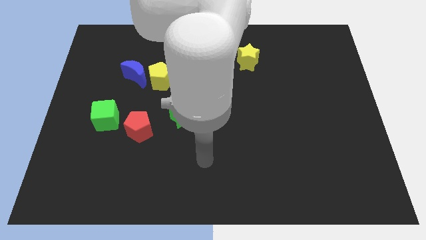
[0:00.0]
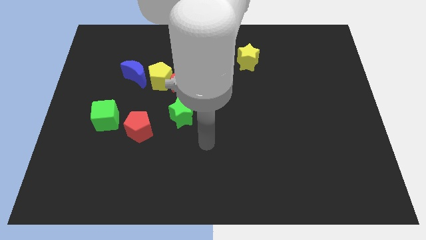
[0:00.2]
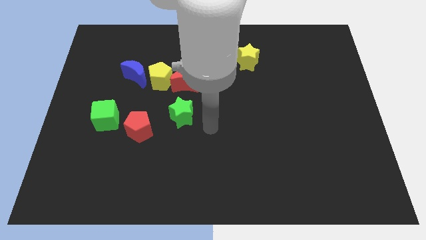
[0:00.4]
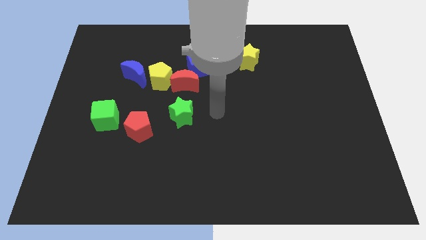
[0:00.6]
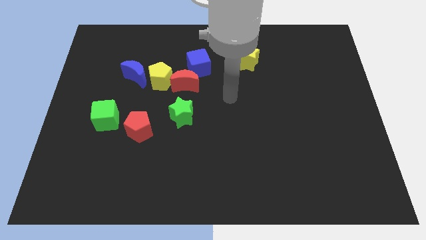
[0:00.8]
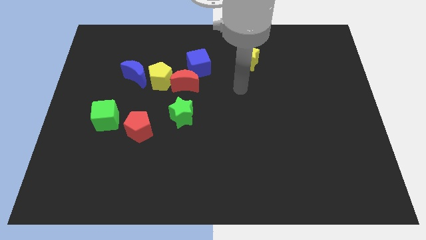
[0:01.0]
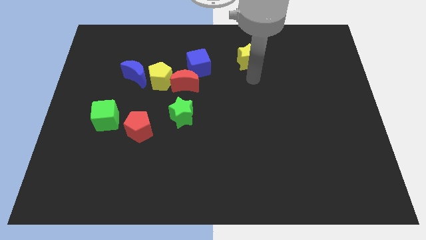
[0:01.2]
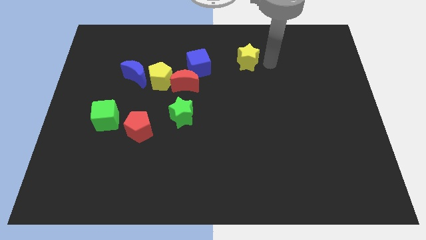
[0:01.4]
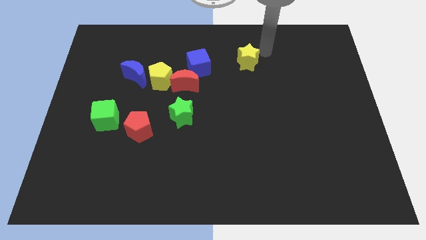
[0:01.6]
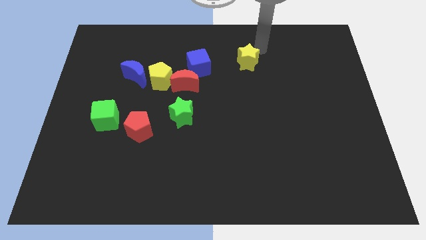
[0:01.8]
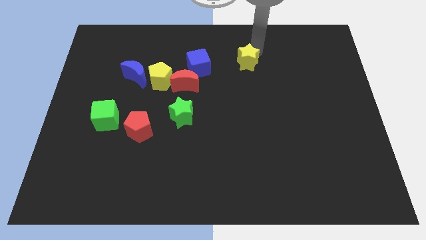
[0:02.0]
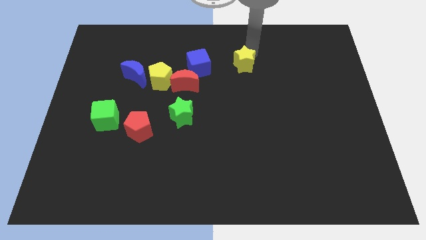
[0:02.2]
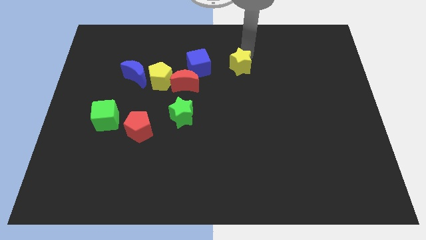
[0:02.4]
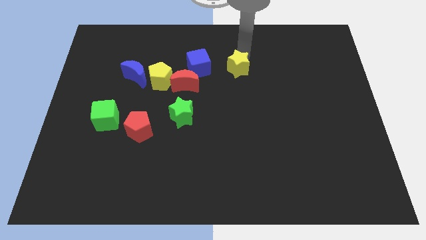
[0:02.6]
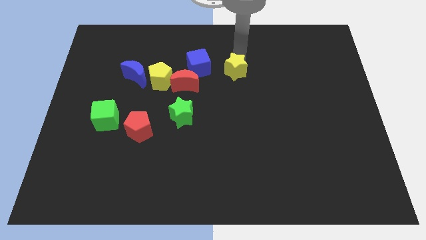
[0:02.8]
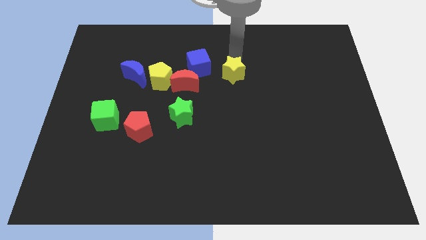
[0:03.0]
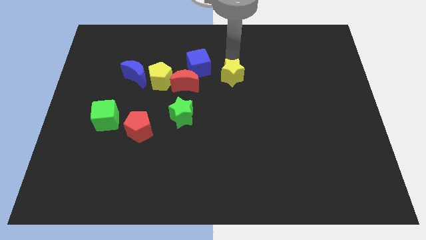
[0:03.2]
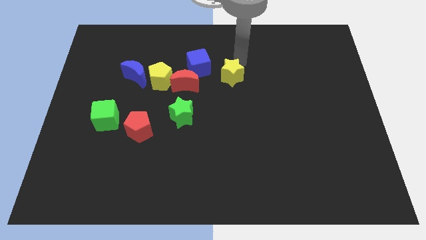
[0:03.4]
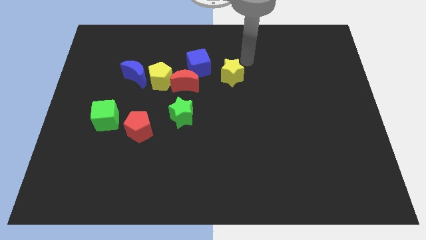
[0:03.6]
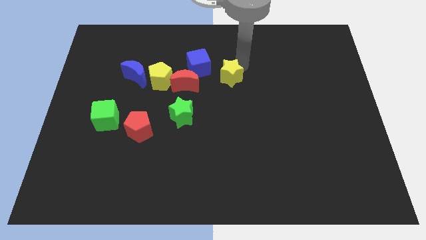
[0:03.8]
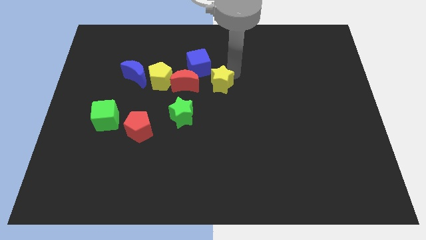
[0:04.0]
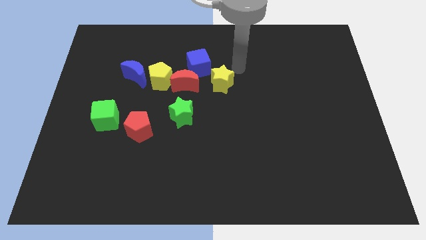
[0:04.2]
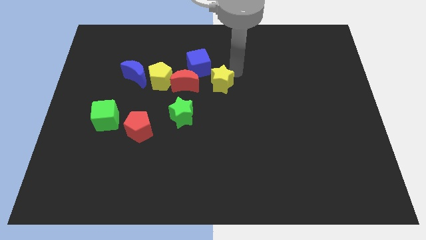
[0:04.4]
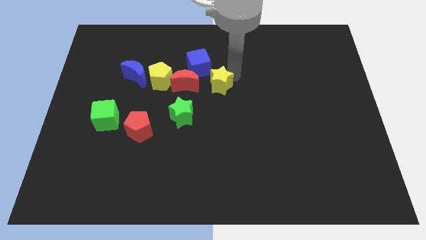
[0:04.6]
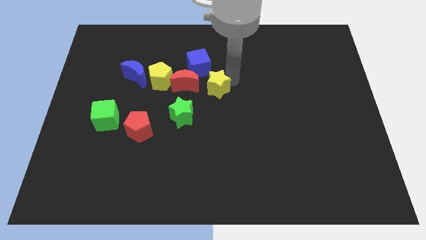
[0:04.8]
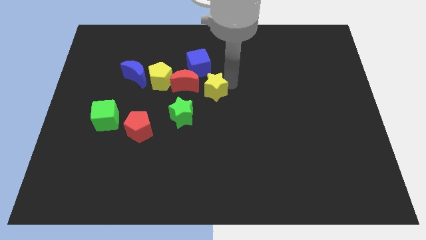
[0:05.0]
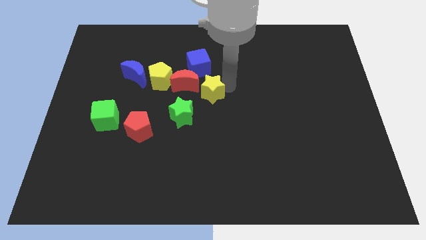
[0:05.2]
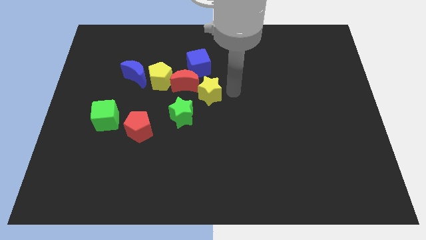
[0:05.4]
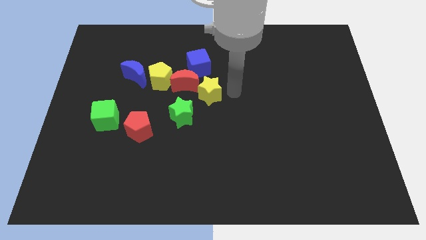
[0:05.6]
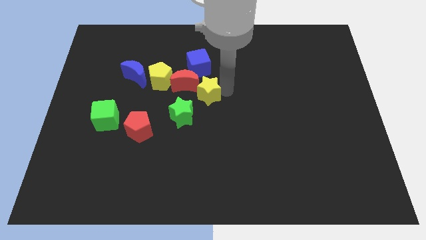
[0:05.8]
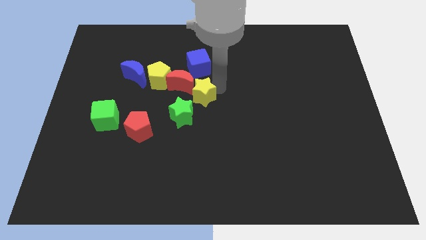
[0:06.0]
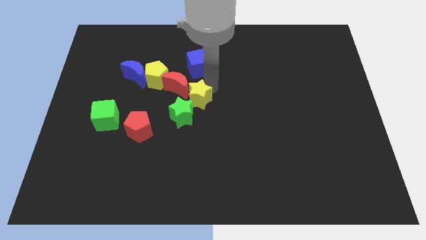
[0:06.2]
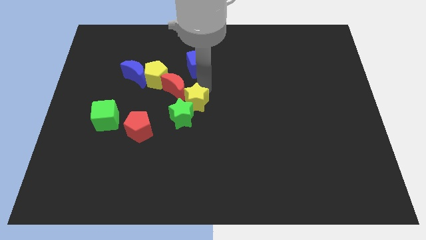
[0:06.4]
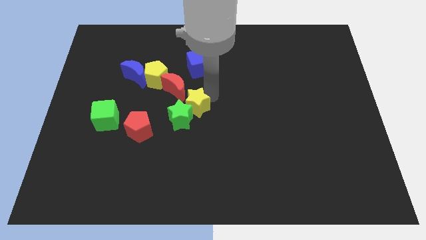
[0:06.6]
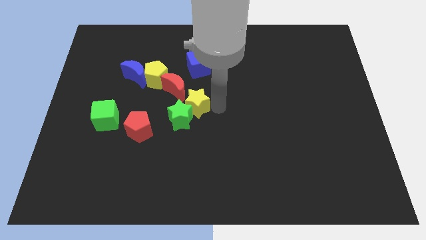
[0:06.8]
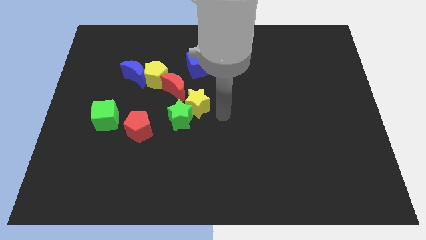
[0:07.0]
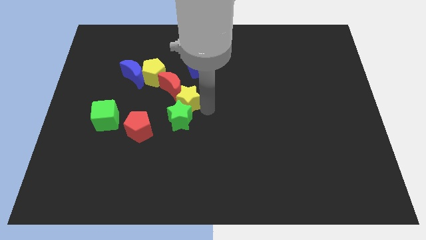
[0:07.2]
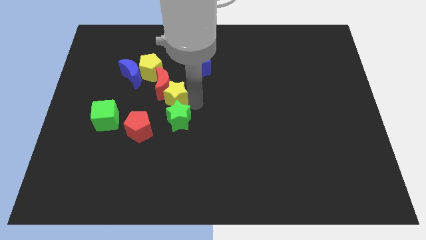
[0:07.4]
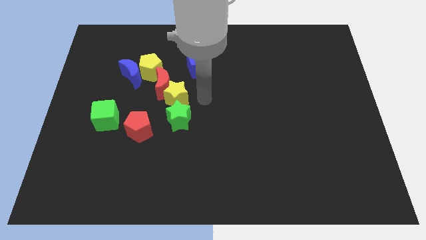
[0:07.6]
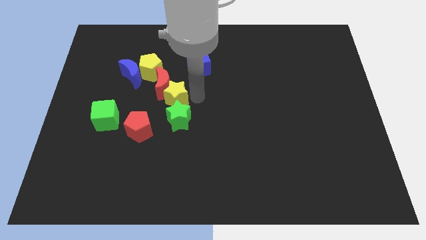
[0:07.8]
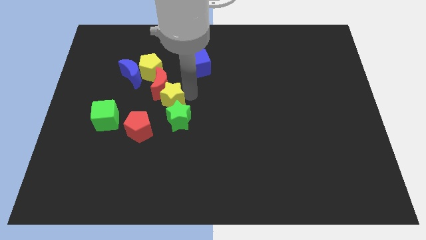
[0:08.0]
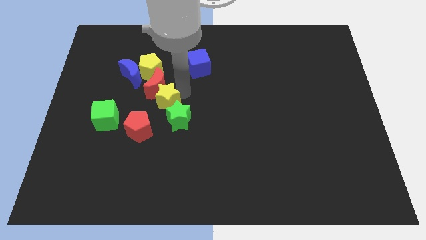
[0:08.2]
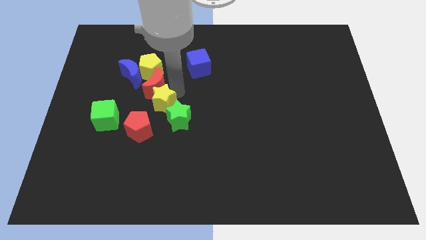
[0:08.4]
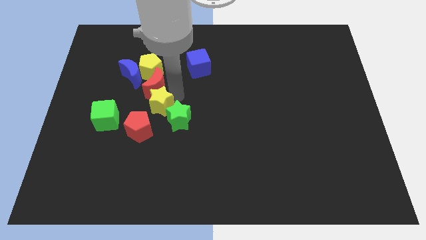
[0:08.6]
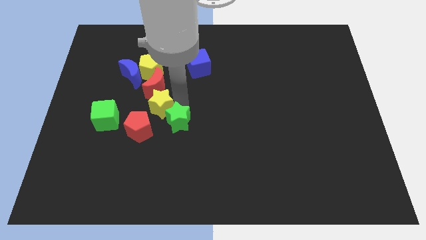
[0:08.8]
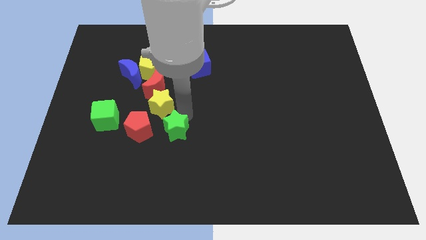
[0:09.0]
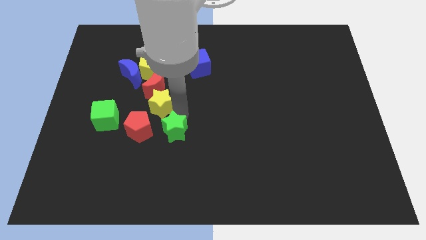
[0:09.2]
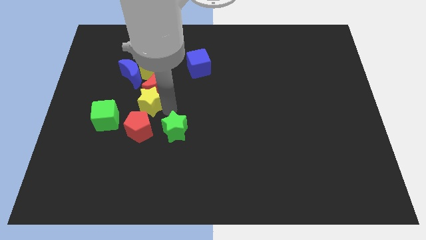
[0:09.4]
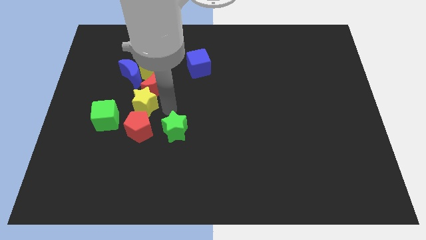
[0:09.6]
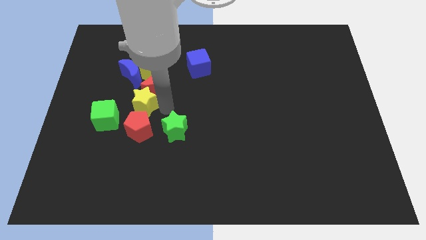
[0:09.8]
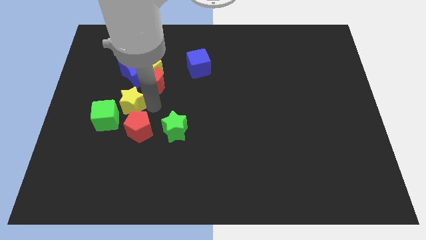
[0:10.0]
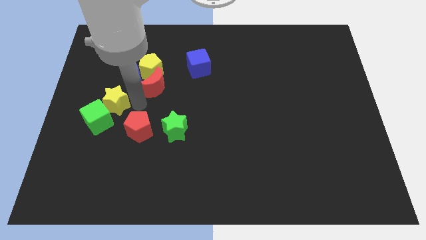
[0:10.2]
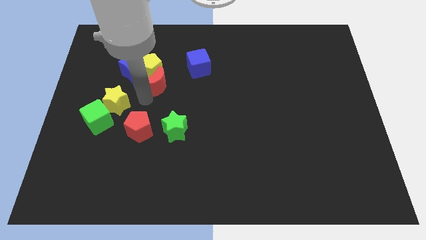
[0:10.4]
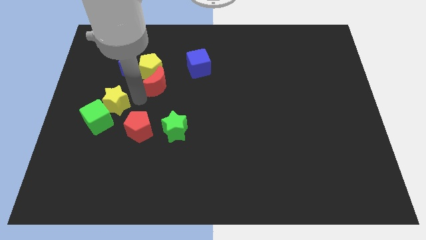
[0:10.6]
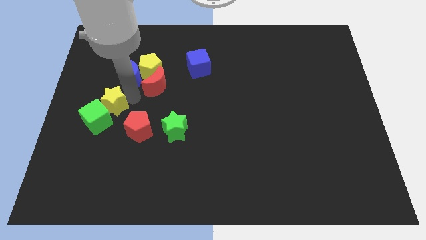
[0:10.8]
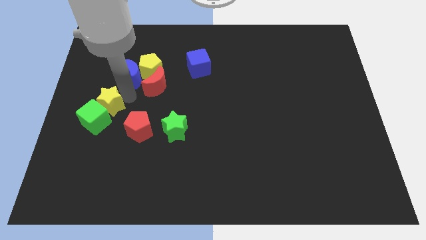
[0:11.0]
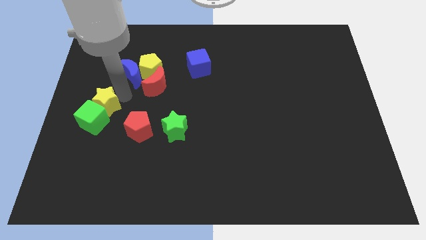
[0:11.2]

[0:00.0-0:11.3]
move the yellow star to the left side

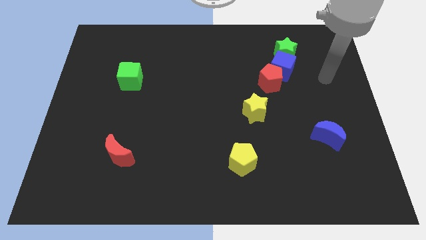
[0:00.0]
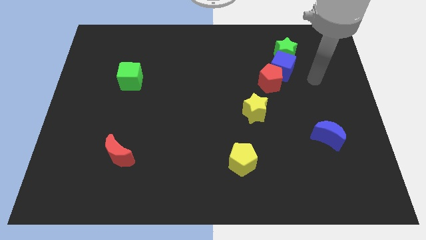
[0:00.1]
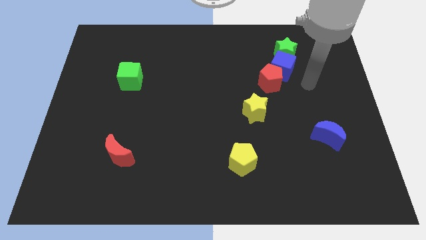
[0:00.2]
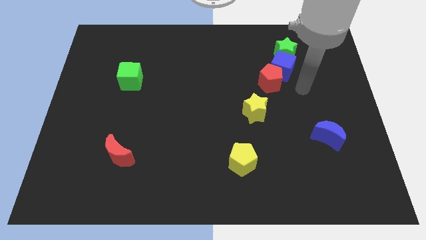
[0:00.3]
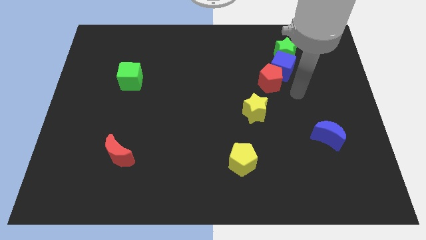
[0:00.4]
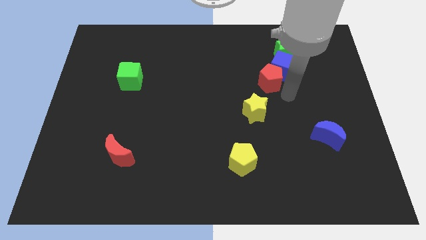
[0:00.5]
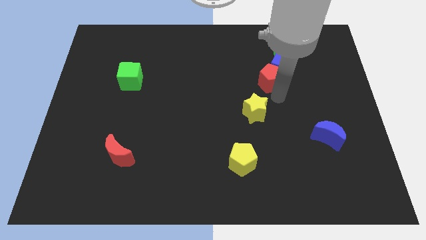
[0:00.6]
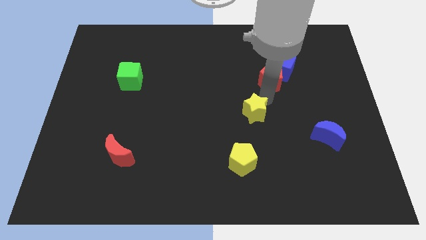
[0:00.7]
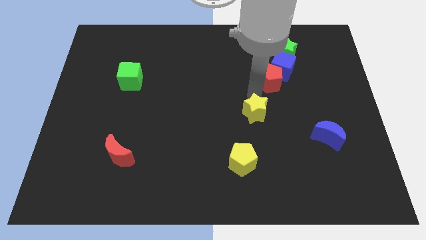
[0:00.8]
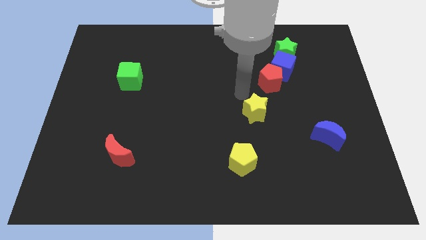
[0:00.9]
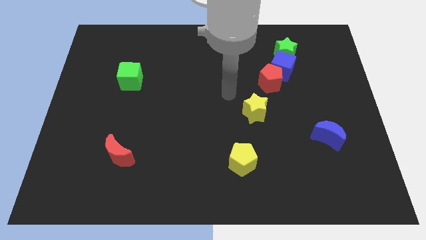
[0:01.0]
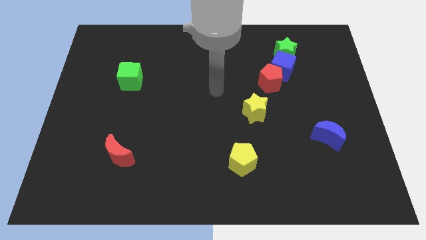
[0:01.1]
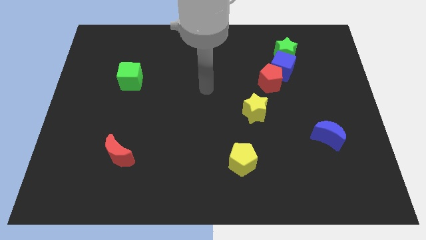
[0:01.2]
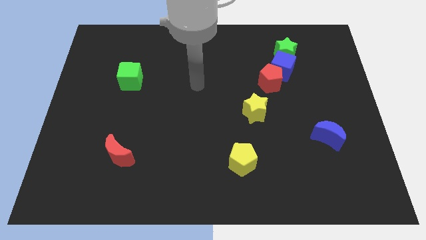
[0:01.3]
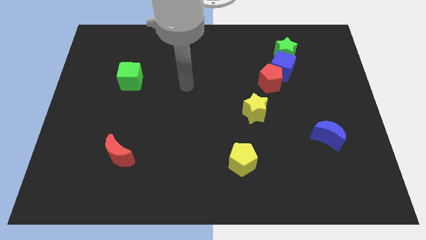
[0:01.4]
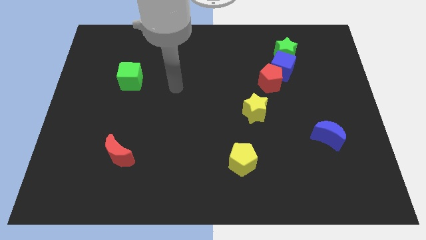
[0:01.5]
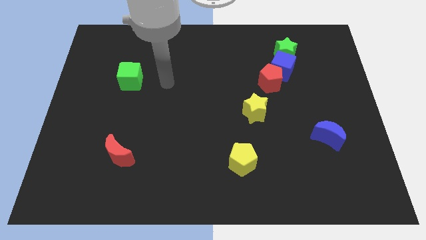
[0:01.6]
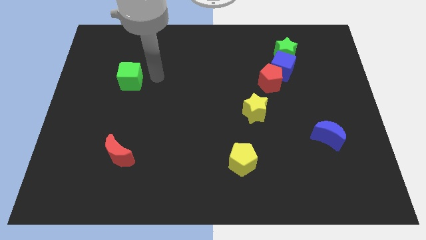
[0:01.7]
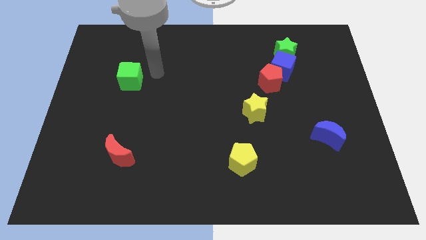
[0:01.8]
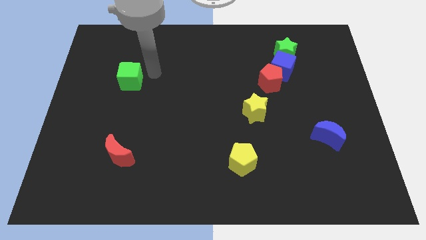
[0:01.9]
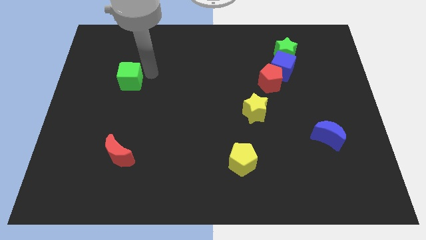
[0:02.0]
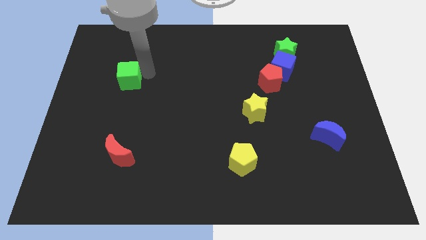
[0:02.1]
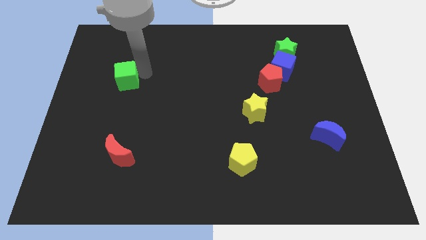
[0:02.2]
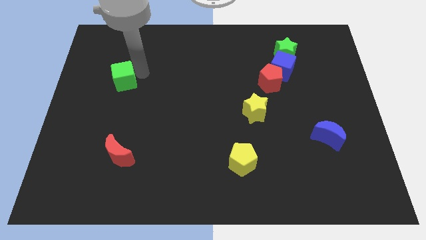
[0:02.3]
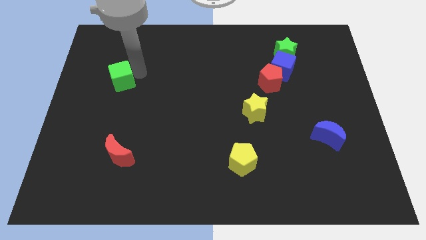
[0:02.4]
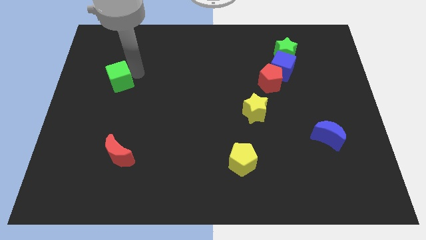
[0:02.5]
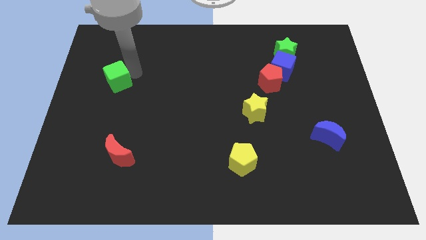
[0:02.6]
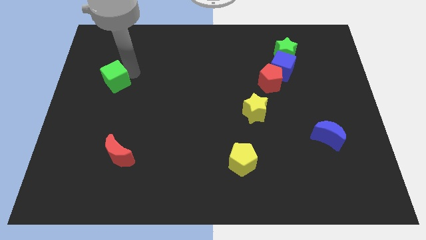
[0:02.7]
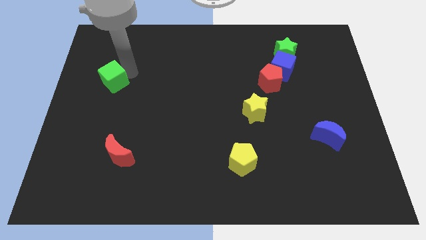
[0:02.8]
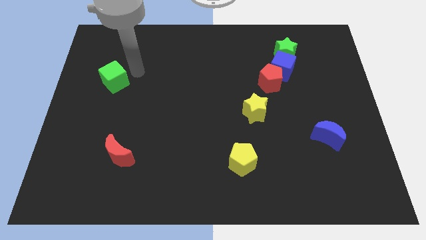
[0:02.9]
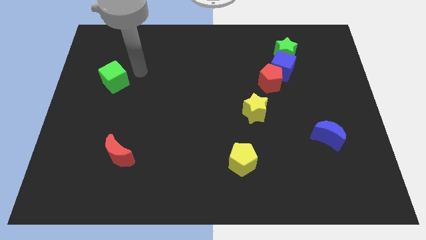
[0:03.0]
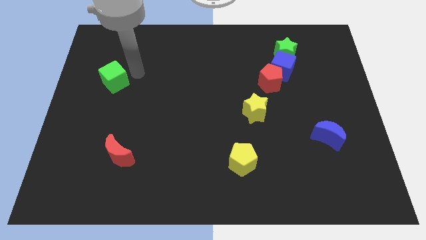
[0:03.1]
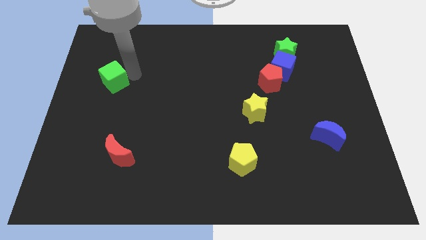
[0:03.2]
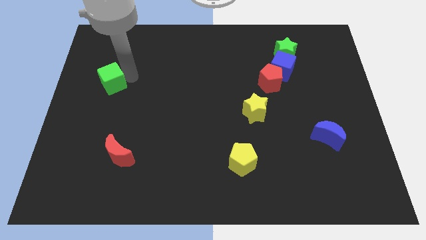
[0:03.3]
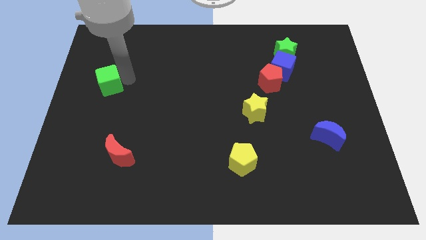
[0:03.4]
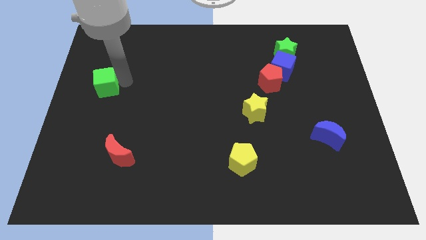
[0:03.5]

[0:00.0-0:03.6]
put the green cube to the left side of the board
